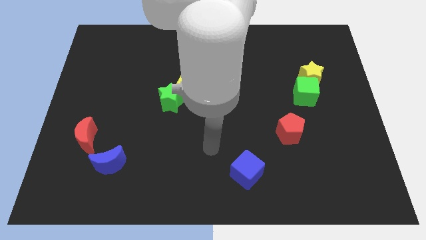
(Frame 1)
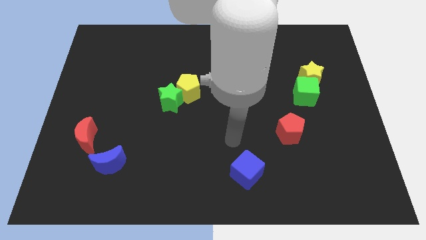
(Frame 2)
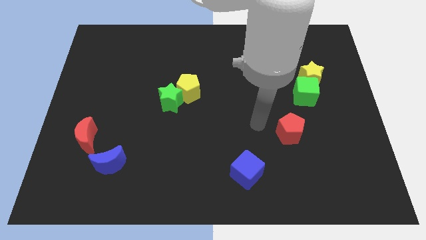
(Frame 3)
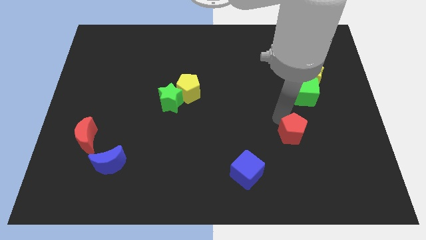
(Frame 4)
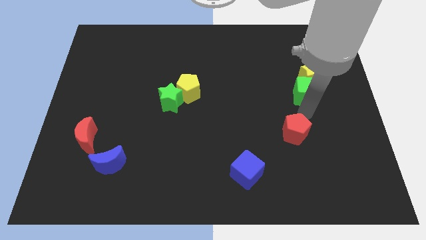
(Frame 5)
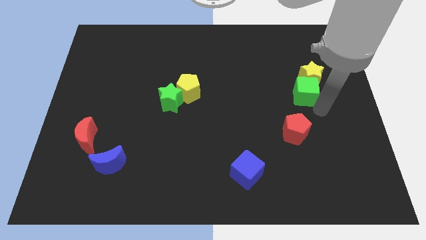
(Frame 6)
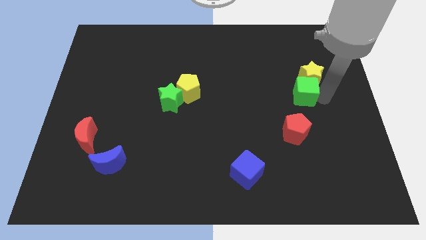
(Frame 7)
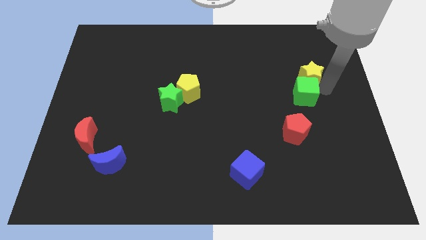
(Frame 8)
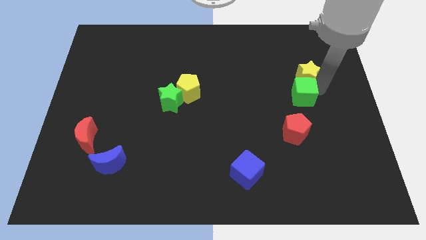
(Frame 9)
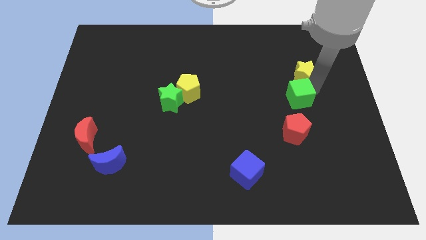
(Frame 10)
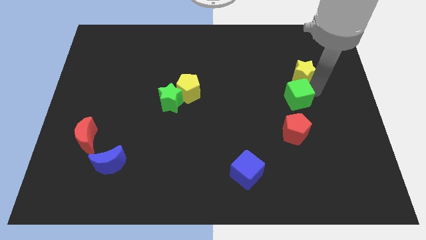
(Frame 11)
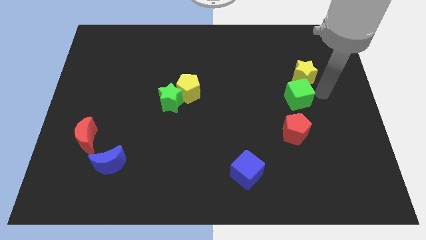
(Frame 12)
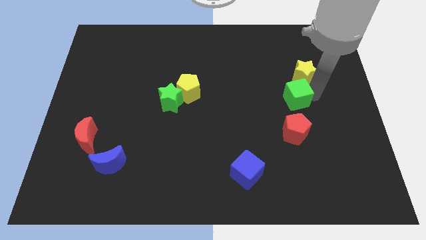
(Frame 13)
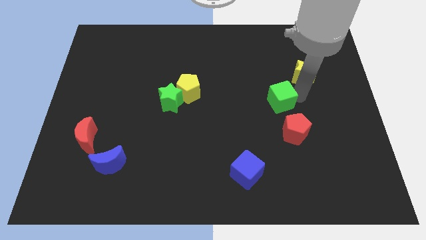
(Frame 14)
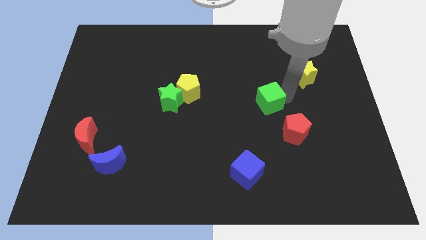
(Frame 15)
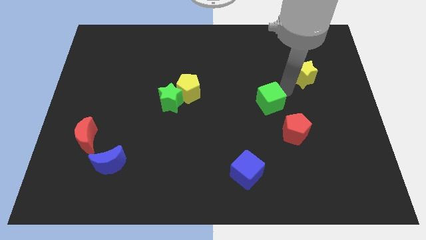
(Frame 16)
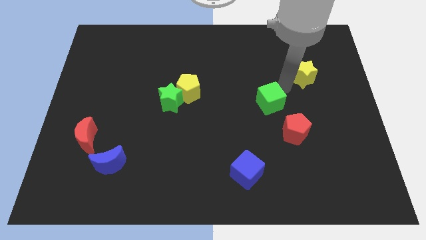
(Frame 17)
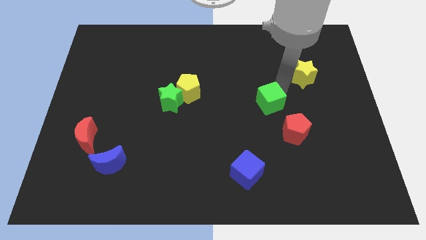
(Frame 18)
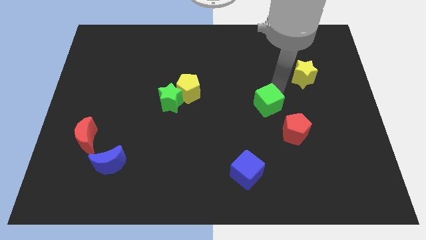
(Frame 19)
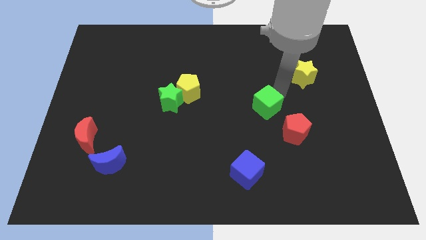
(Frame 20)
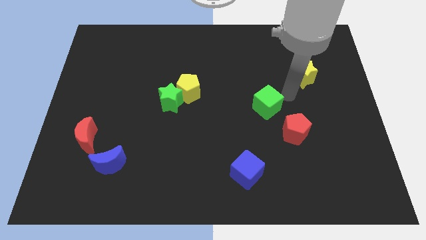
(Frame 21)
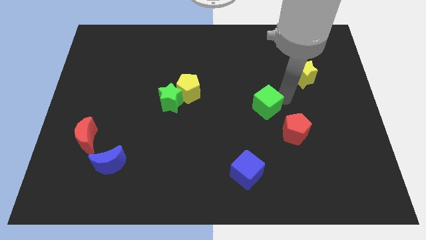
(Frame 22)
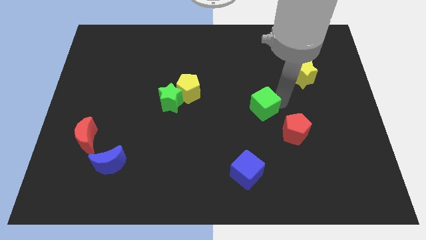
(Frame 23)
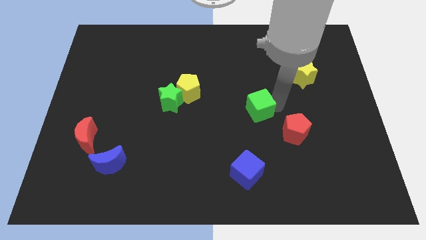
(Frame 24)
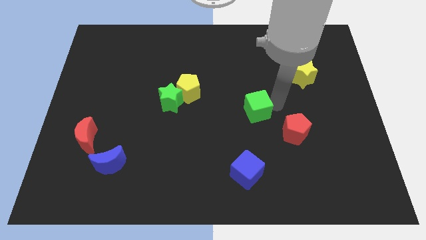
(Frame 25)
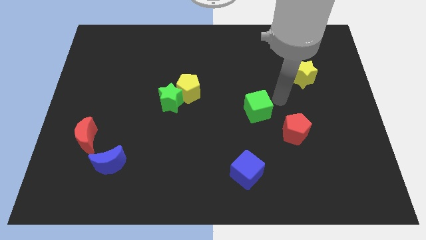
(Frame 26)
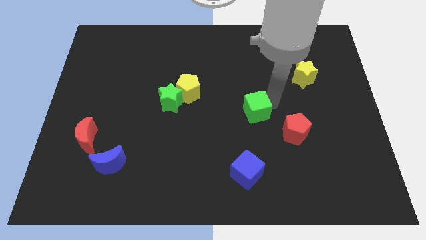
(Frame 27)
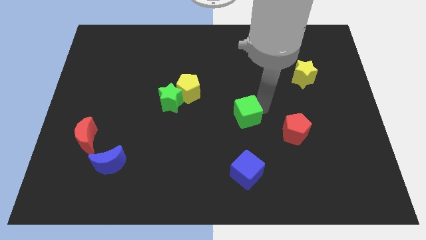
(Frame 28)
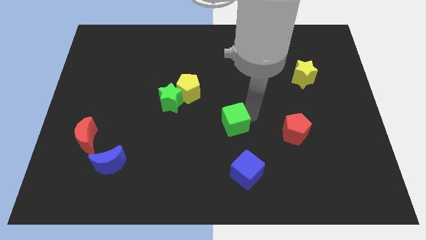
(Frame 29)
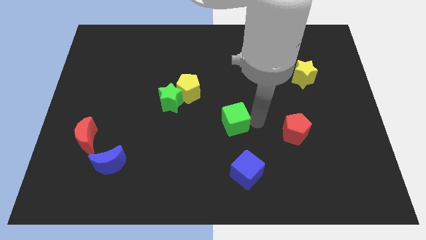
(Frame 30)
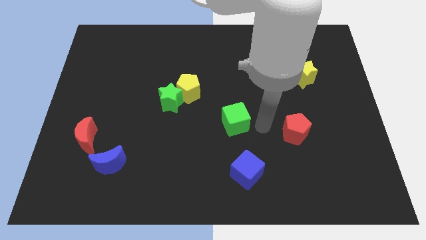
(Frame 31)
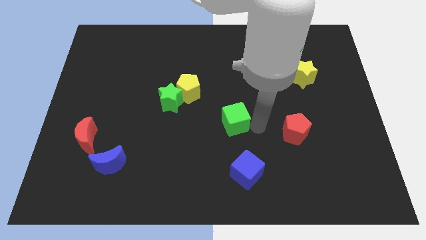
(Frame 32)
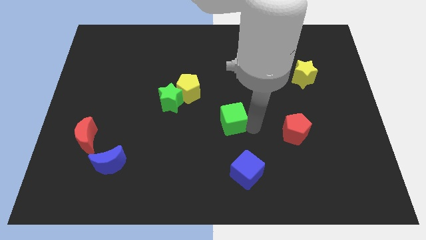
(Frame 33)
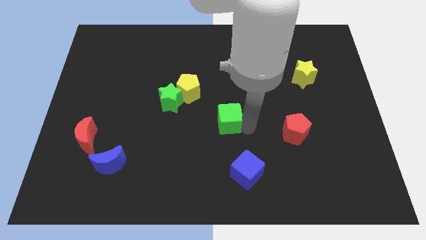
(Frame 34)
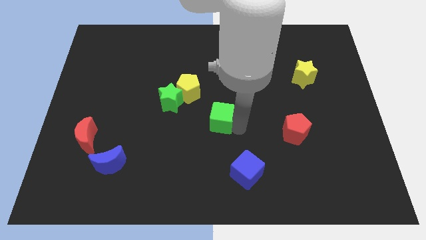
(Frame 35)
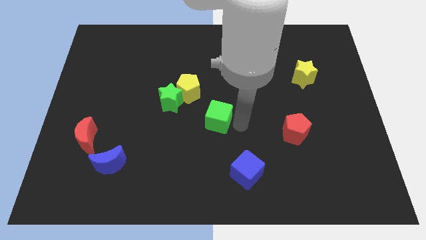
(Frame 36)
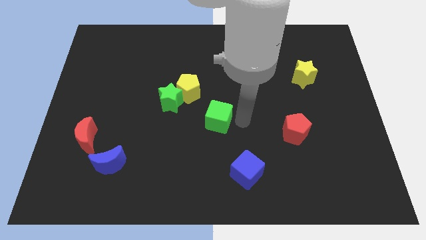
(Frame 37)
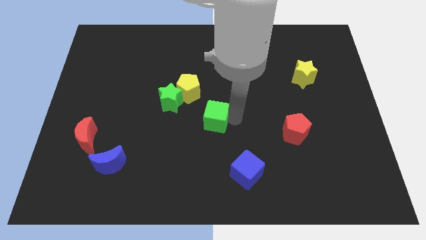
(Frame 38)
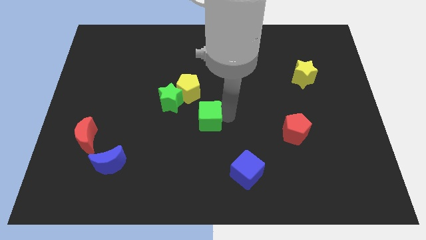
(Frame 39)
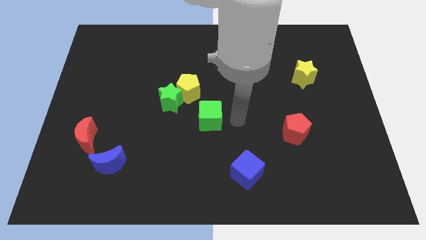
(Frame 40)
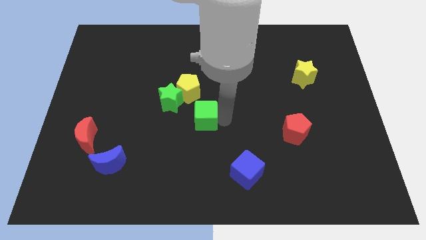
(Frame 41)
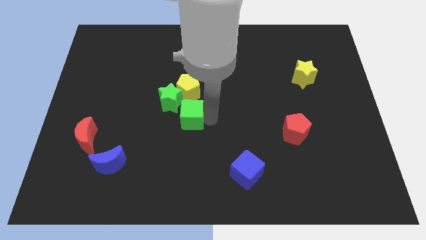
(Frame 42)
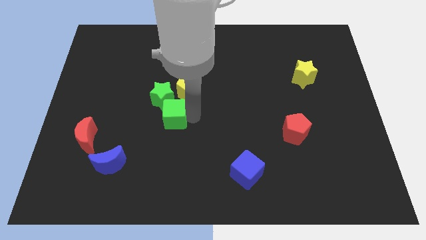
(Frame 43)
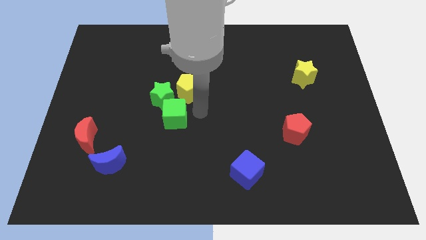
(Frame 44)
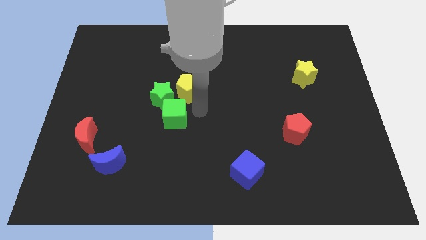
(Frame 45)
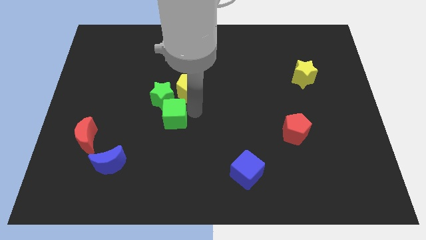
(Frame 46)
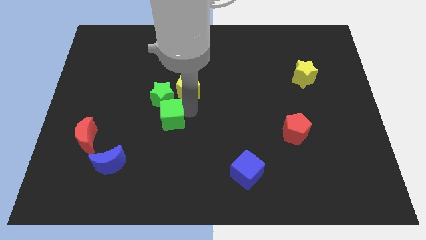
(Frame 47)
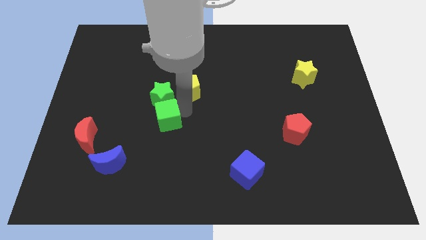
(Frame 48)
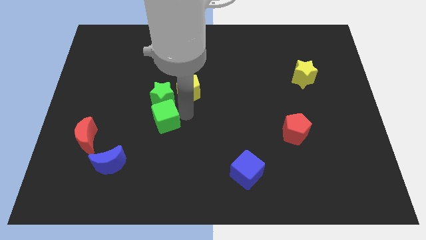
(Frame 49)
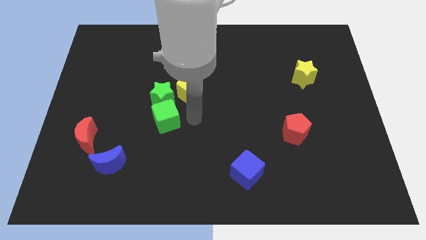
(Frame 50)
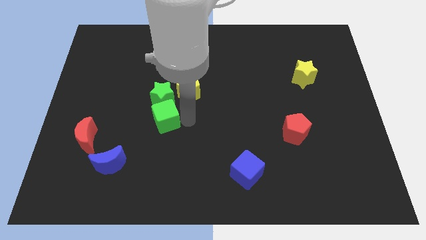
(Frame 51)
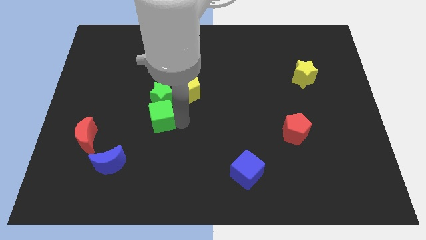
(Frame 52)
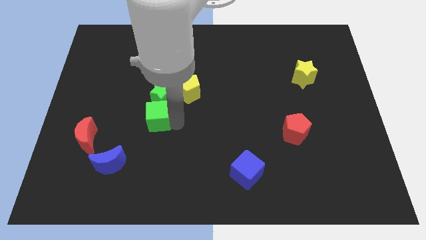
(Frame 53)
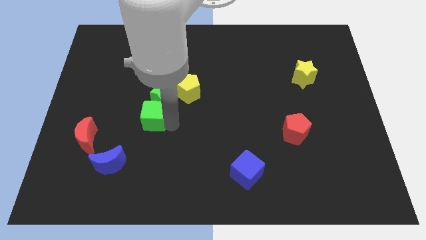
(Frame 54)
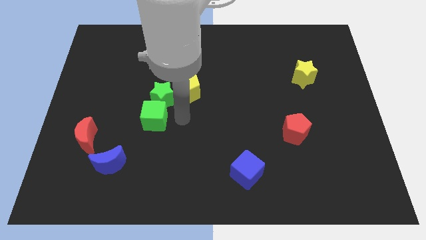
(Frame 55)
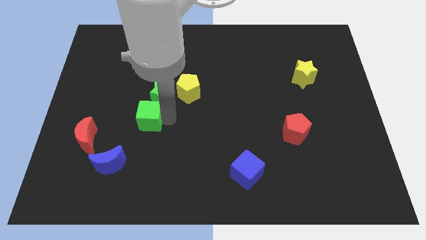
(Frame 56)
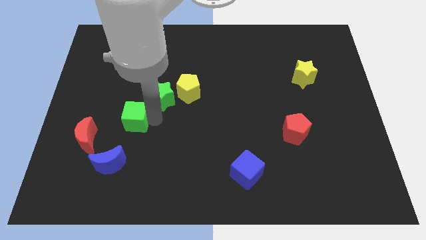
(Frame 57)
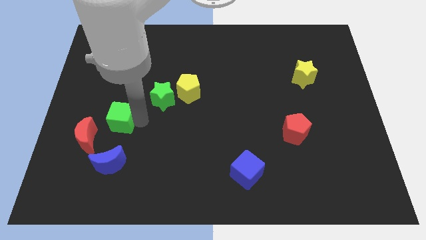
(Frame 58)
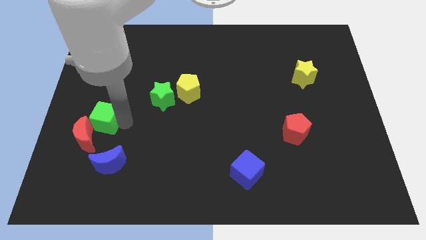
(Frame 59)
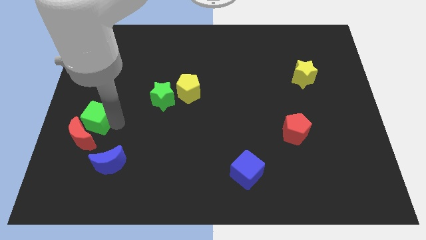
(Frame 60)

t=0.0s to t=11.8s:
put the green cube to the left side

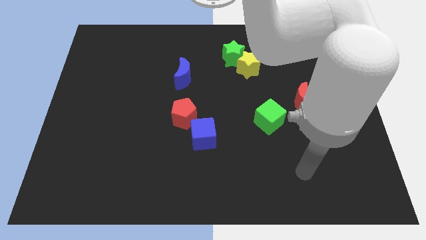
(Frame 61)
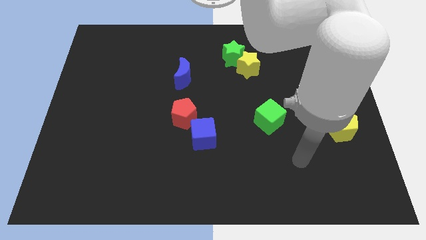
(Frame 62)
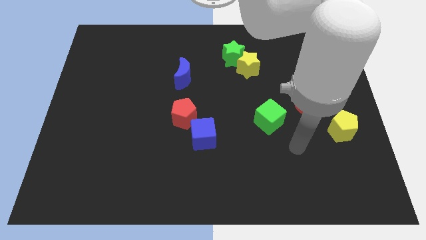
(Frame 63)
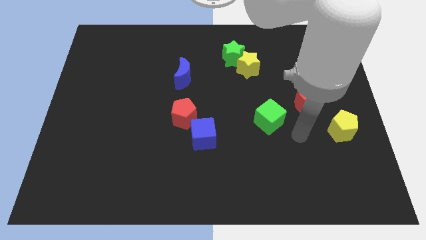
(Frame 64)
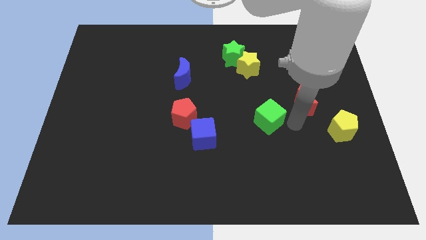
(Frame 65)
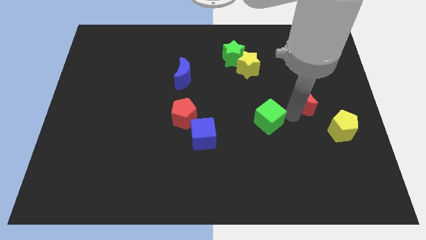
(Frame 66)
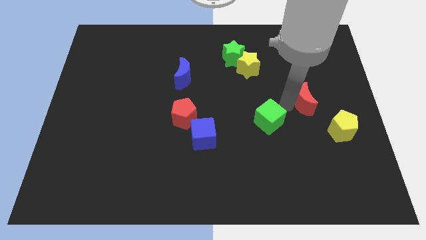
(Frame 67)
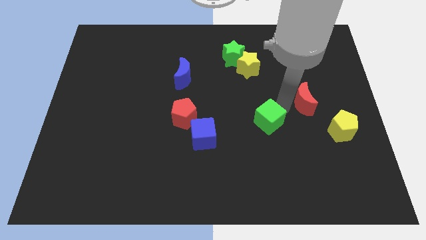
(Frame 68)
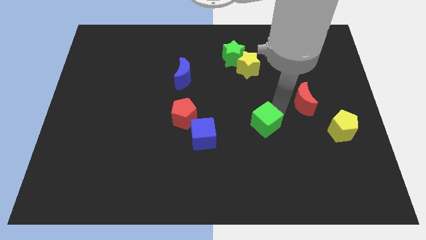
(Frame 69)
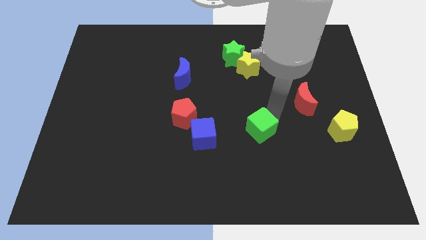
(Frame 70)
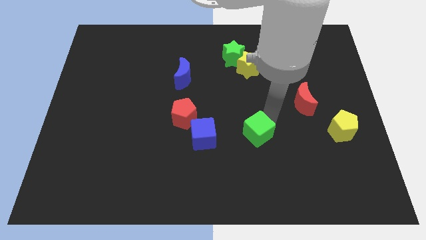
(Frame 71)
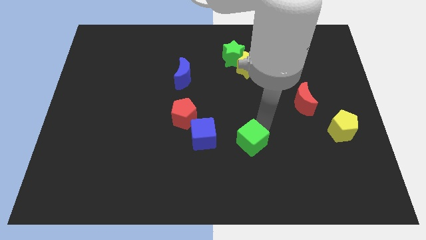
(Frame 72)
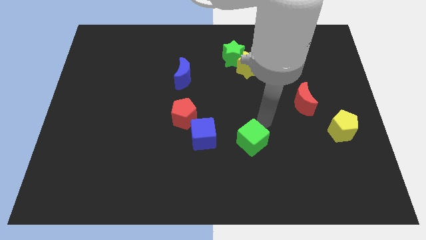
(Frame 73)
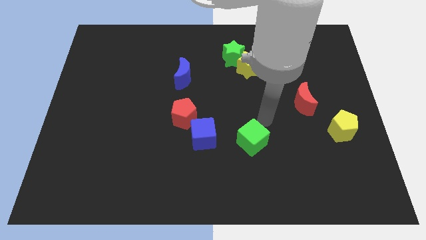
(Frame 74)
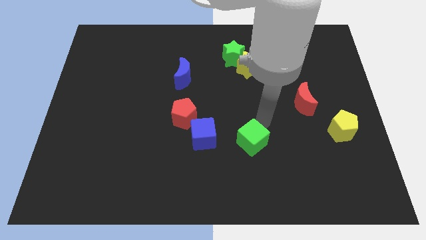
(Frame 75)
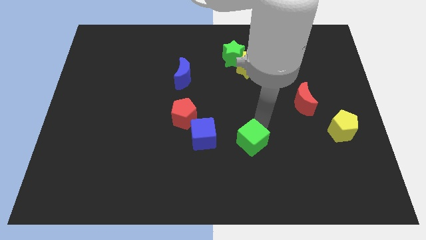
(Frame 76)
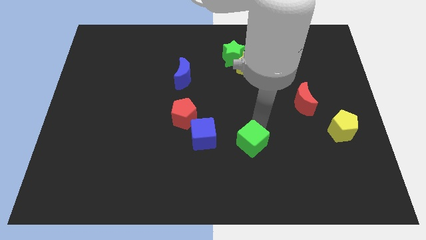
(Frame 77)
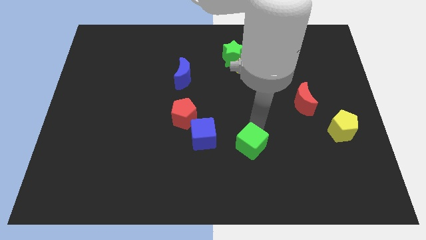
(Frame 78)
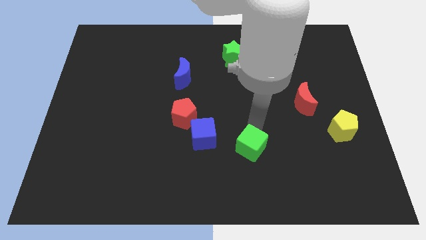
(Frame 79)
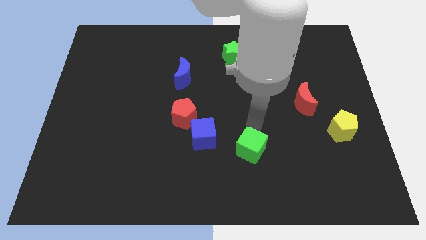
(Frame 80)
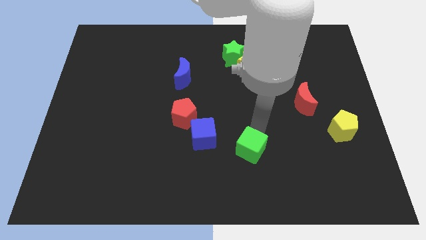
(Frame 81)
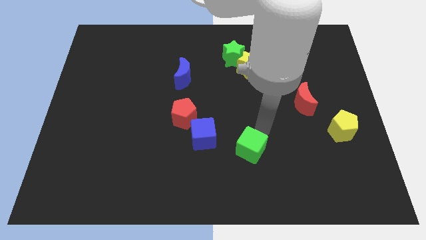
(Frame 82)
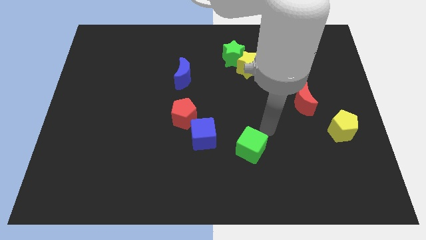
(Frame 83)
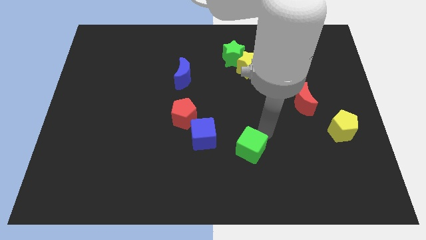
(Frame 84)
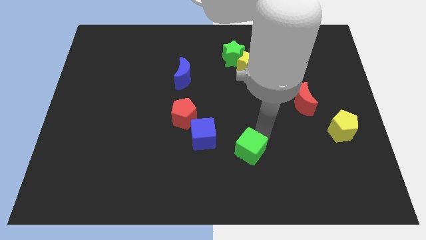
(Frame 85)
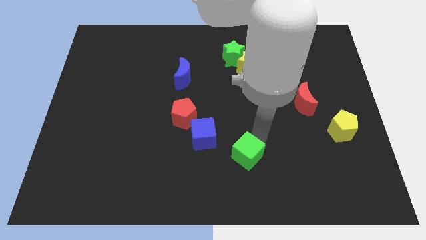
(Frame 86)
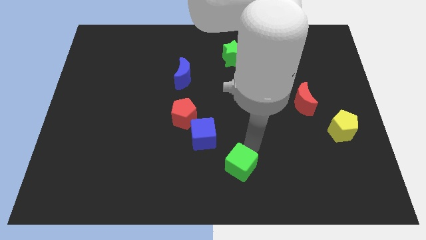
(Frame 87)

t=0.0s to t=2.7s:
push the green cube to the bottom
